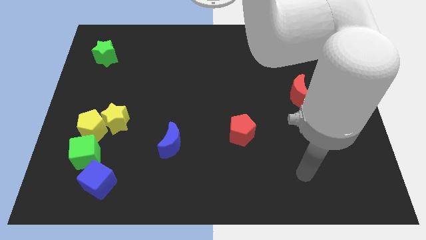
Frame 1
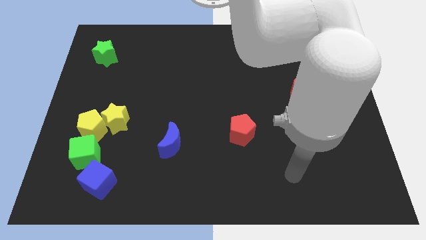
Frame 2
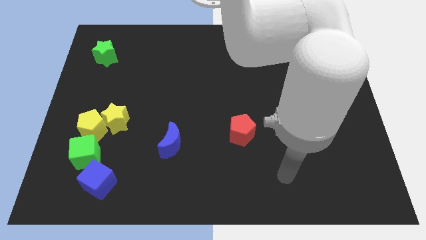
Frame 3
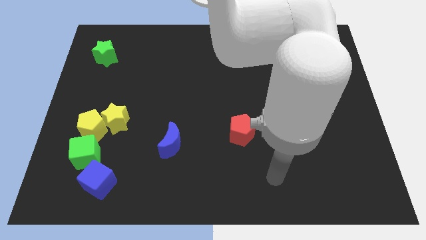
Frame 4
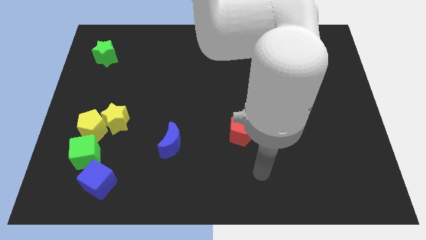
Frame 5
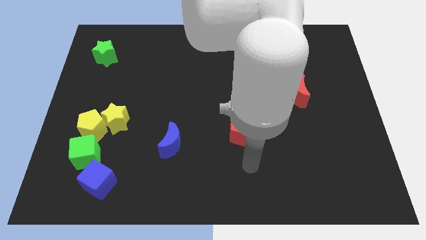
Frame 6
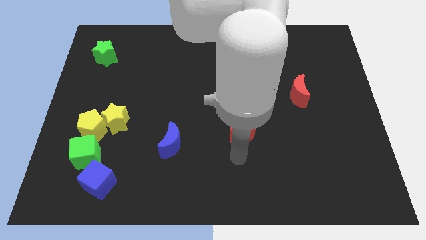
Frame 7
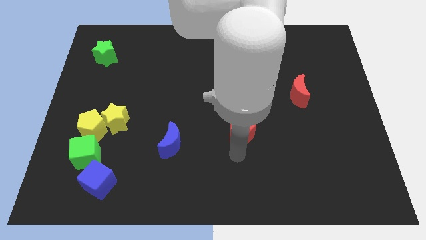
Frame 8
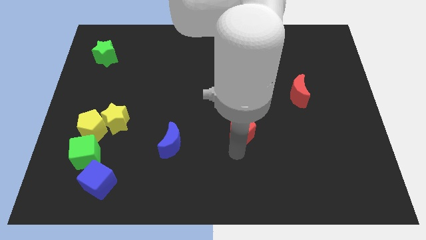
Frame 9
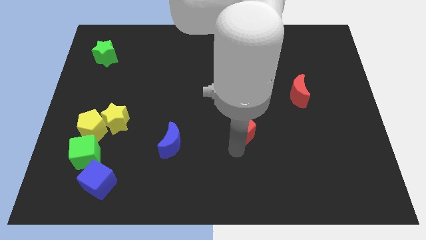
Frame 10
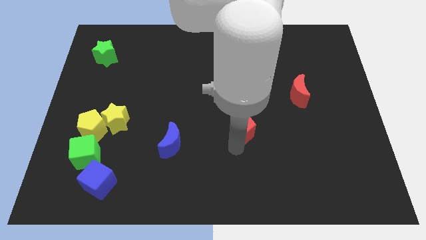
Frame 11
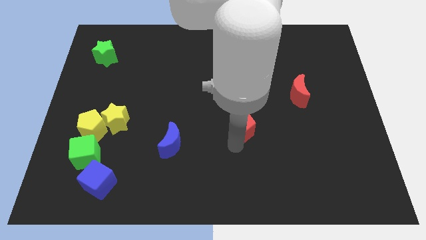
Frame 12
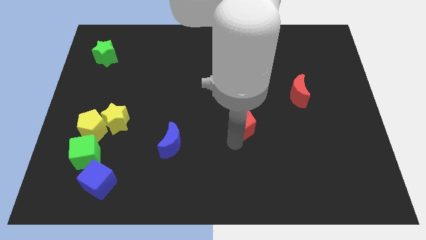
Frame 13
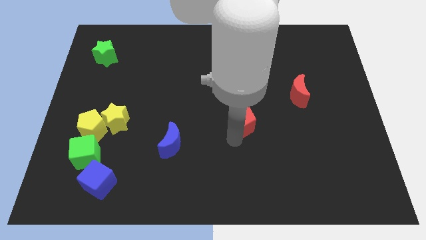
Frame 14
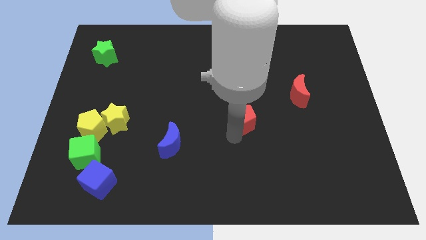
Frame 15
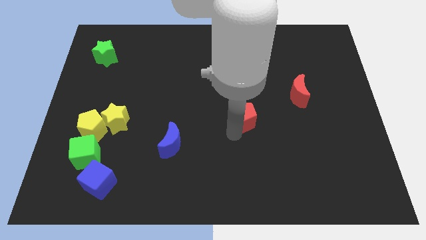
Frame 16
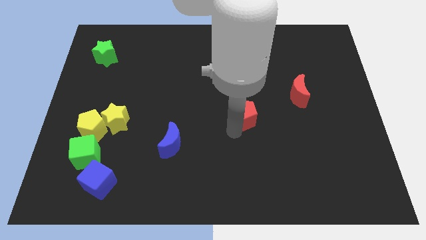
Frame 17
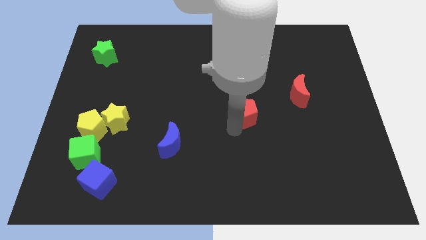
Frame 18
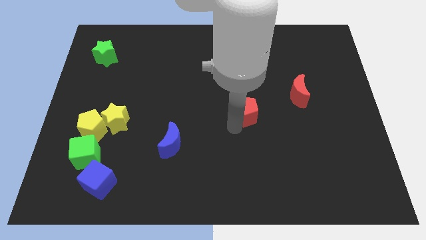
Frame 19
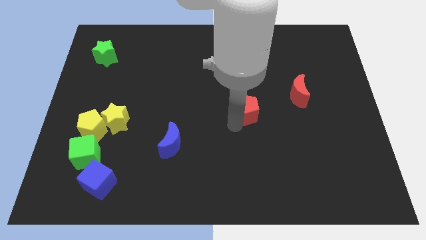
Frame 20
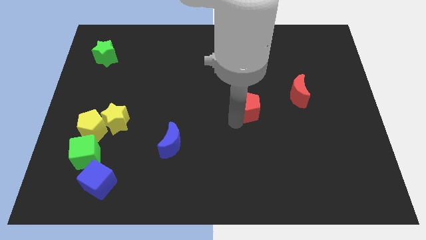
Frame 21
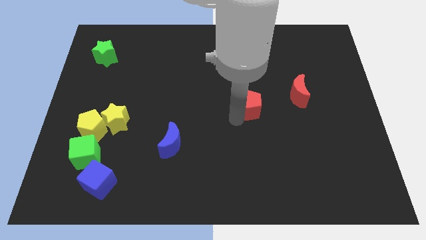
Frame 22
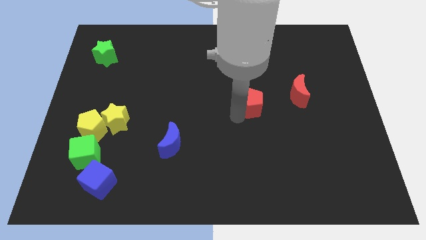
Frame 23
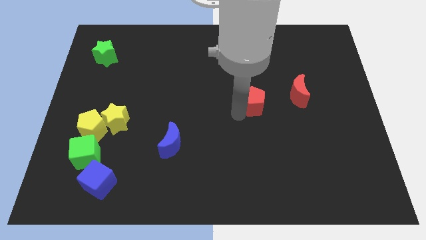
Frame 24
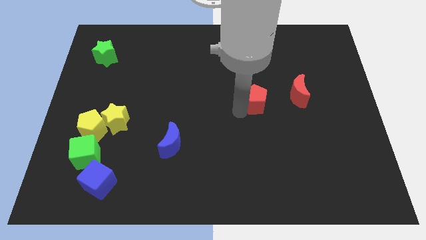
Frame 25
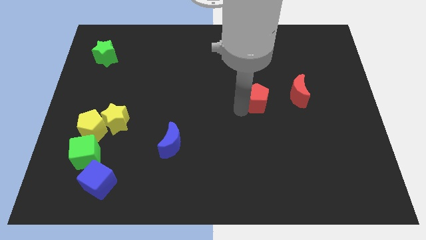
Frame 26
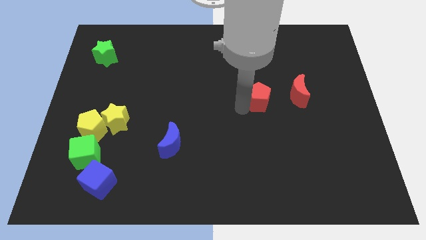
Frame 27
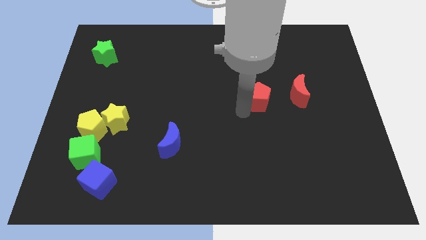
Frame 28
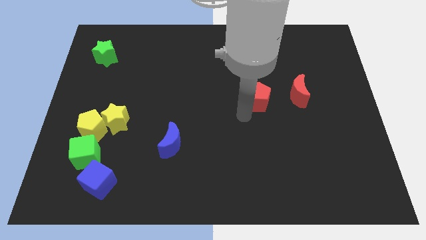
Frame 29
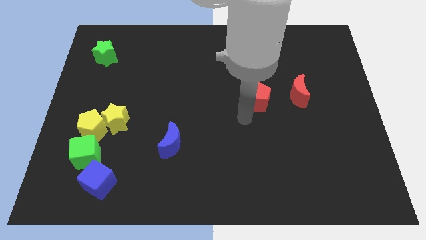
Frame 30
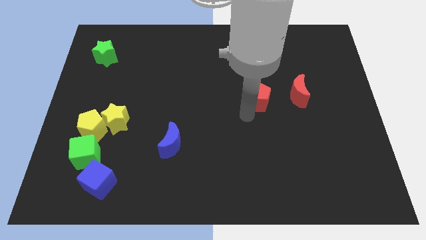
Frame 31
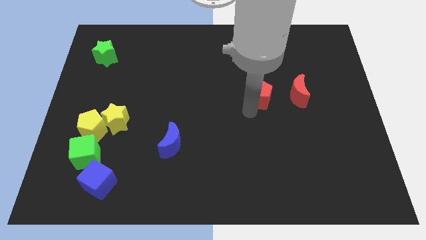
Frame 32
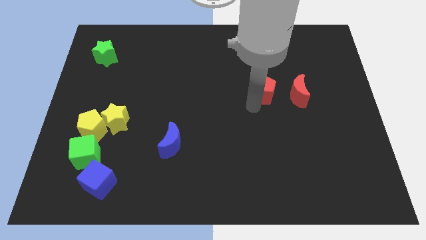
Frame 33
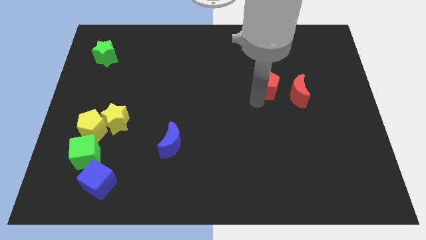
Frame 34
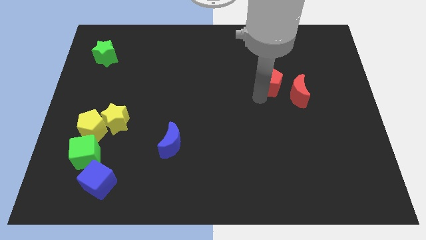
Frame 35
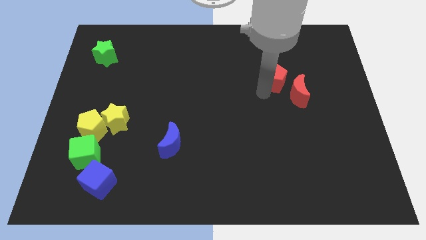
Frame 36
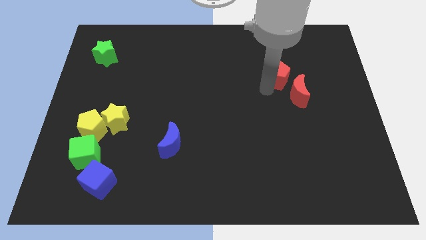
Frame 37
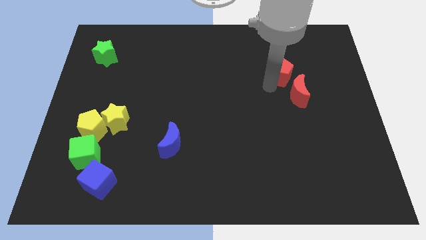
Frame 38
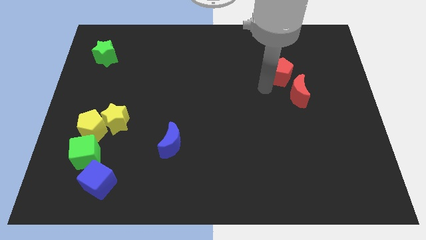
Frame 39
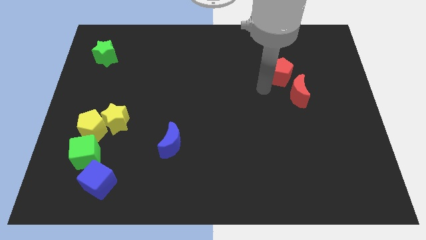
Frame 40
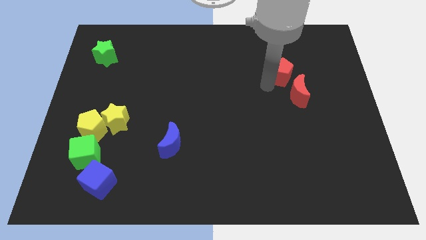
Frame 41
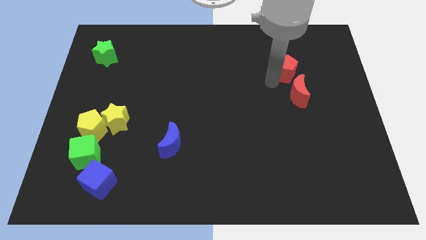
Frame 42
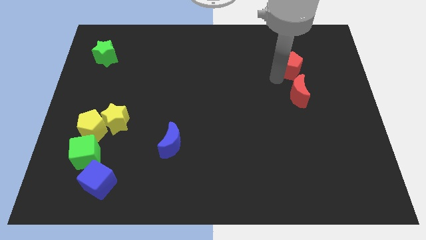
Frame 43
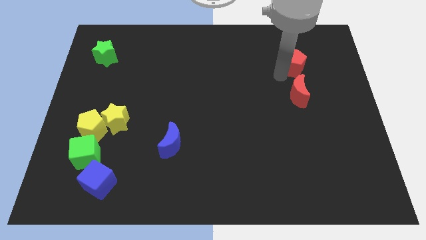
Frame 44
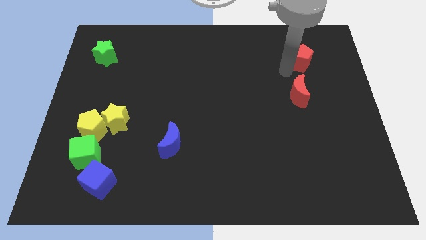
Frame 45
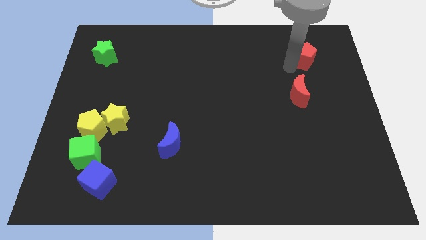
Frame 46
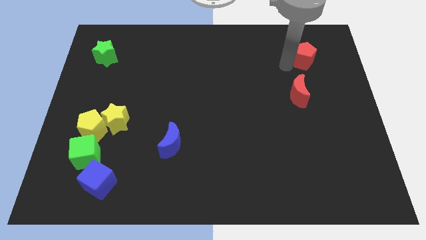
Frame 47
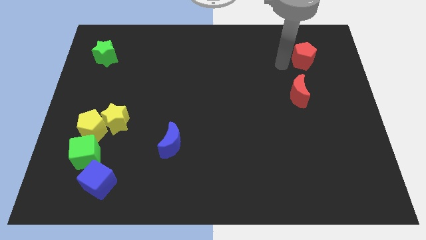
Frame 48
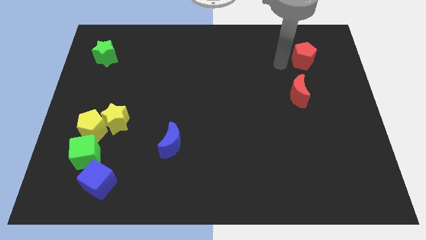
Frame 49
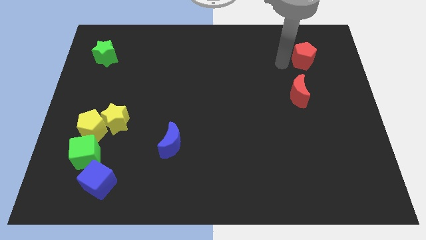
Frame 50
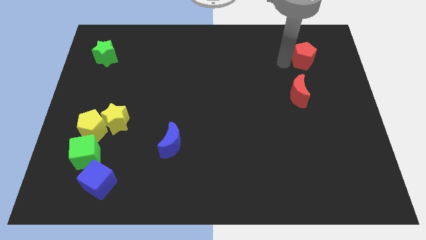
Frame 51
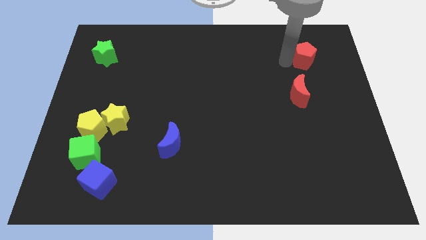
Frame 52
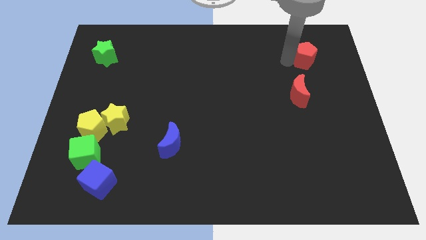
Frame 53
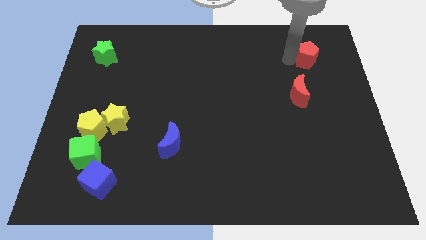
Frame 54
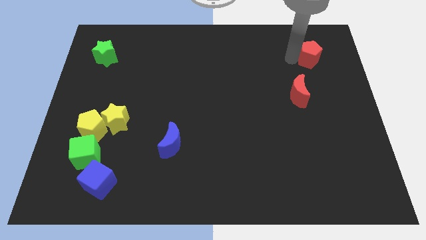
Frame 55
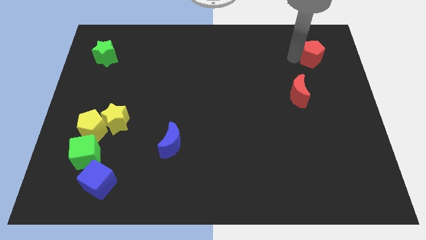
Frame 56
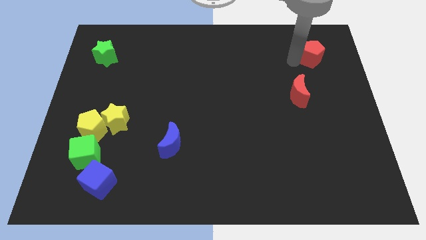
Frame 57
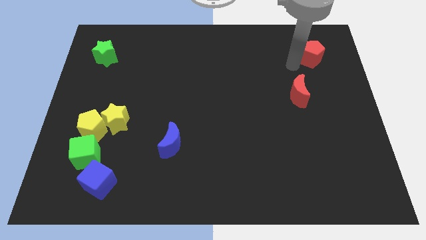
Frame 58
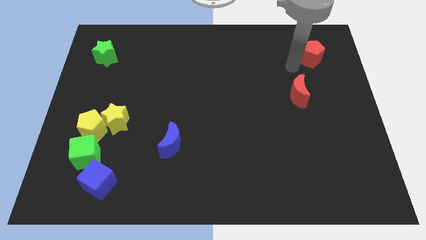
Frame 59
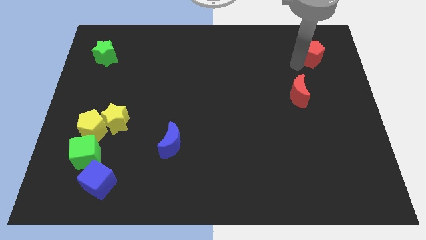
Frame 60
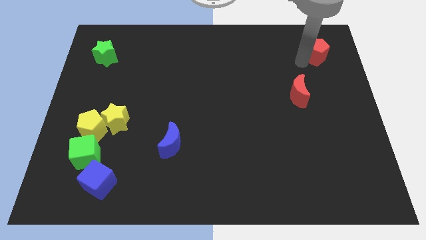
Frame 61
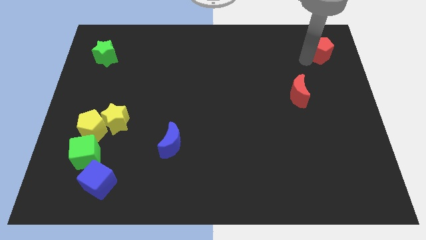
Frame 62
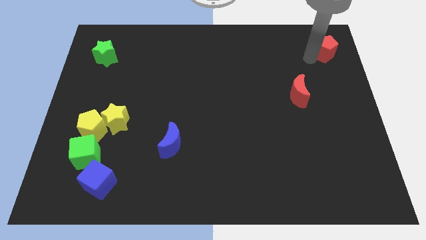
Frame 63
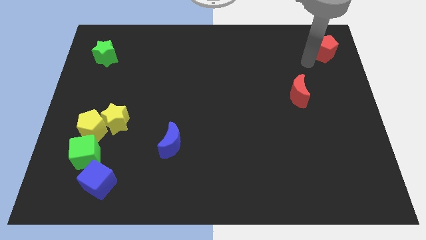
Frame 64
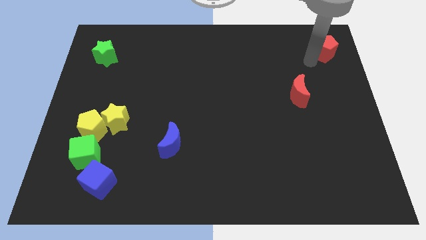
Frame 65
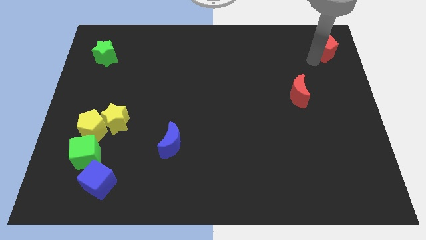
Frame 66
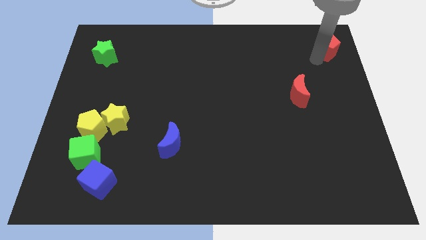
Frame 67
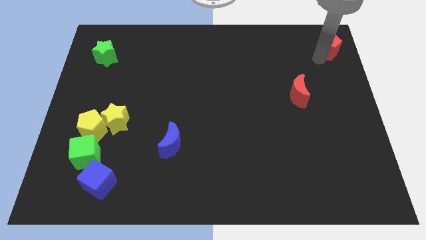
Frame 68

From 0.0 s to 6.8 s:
put the red pentagon to the upper right corner
